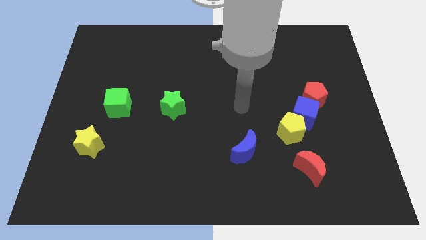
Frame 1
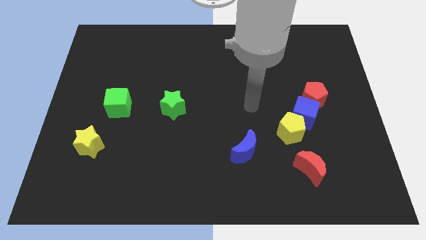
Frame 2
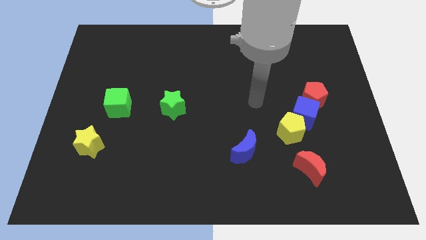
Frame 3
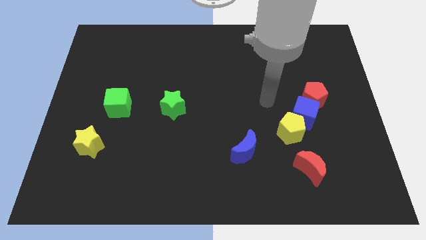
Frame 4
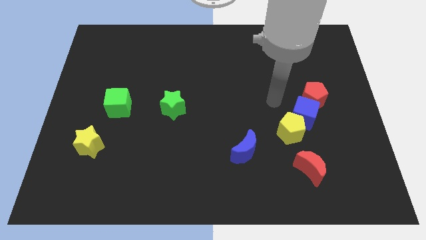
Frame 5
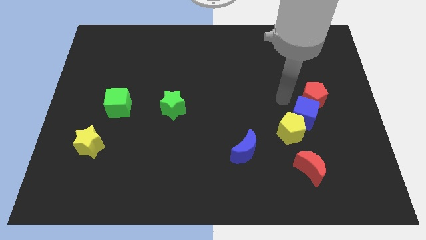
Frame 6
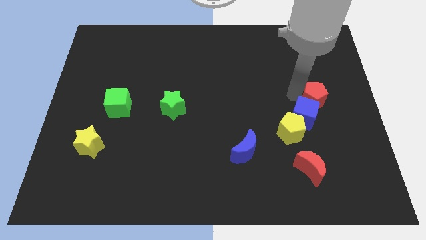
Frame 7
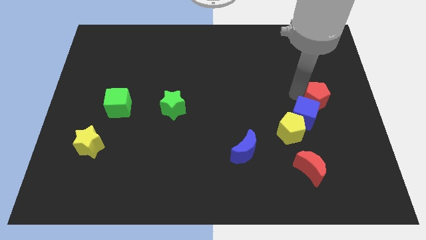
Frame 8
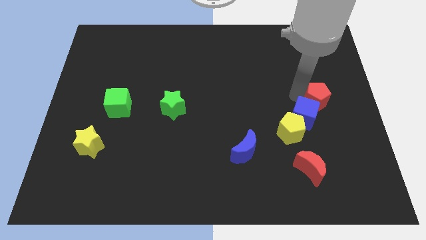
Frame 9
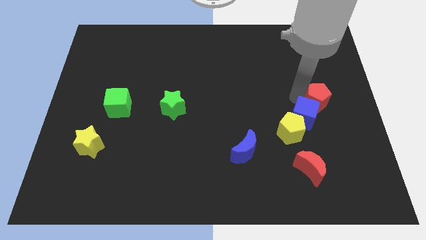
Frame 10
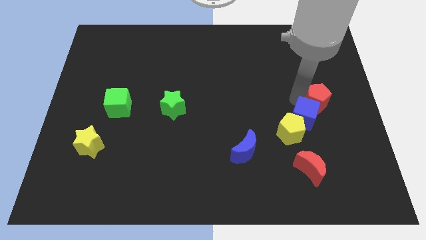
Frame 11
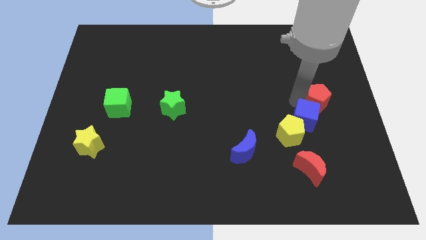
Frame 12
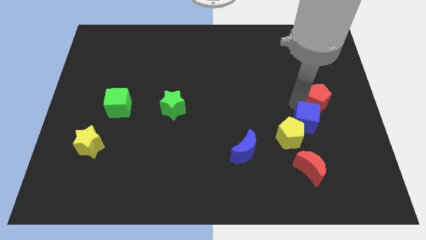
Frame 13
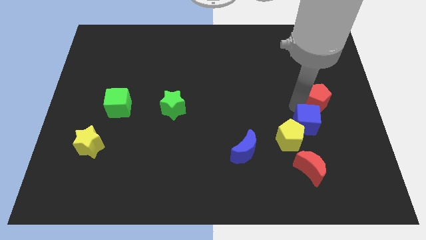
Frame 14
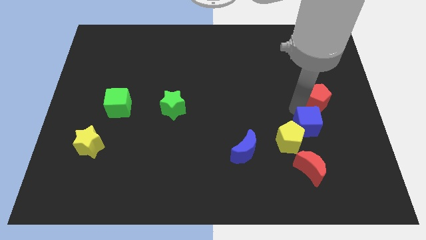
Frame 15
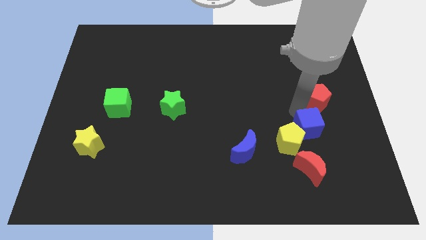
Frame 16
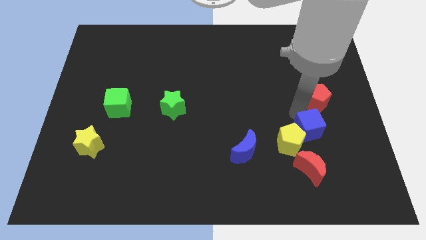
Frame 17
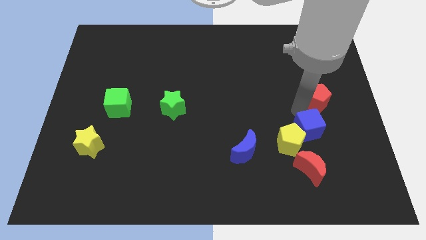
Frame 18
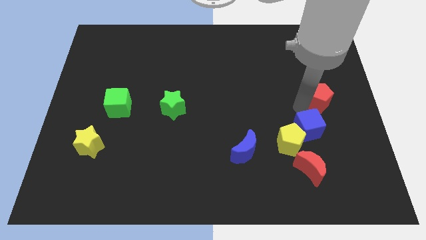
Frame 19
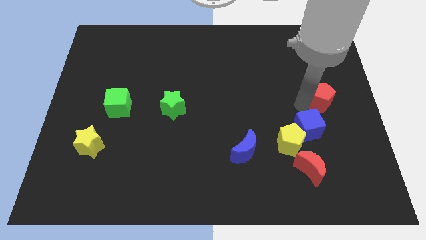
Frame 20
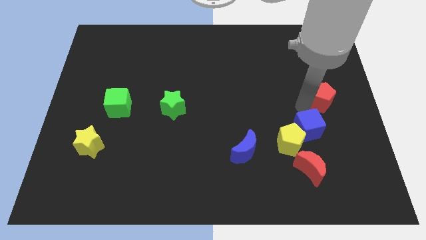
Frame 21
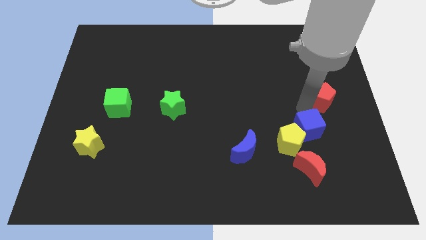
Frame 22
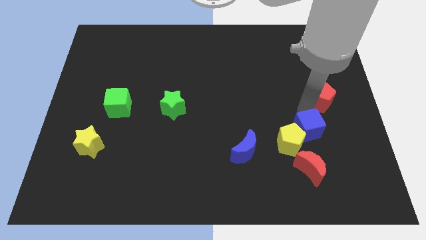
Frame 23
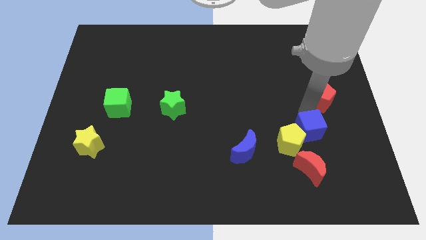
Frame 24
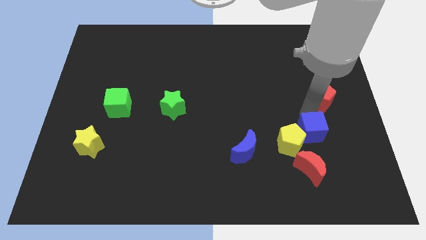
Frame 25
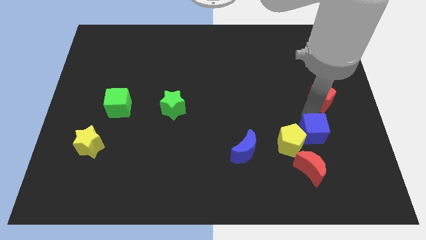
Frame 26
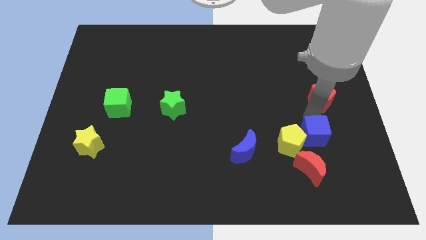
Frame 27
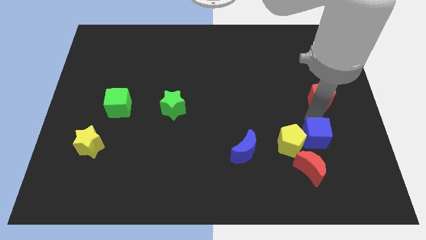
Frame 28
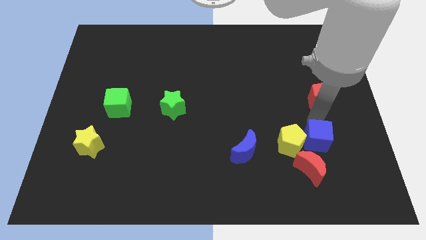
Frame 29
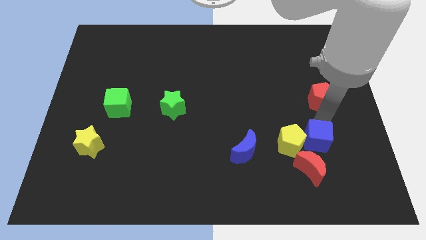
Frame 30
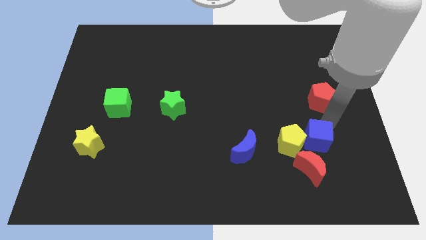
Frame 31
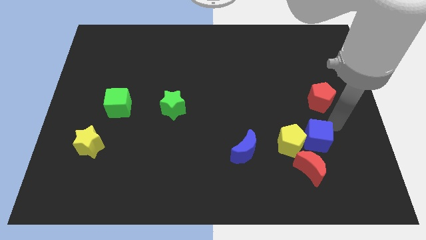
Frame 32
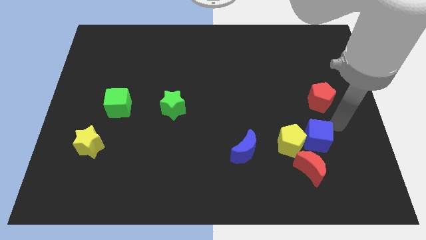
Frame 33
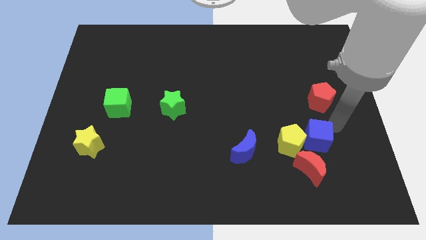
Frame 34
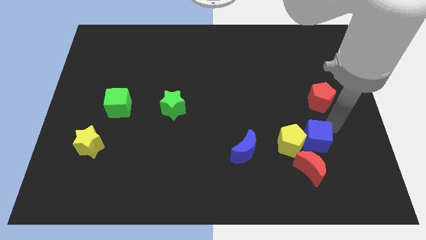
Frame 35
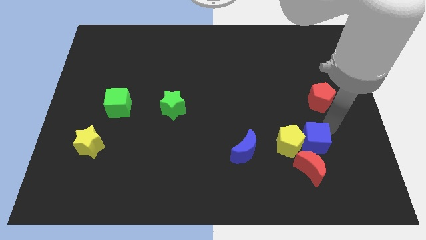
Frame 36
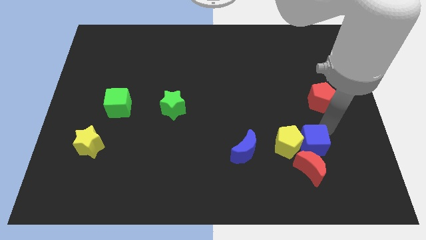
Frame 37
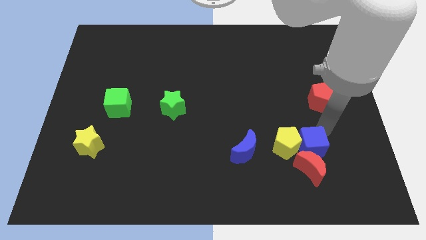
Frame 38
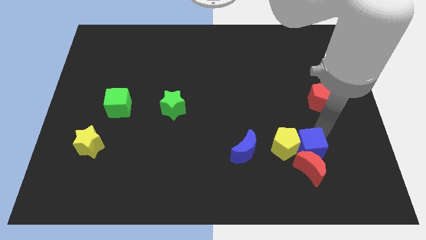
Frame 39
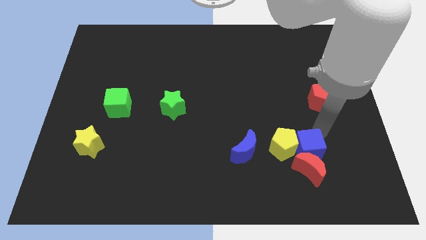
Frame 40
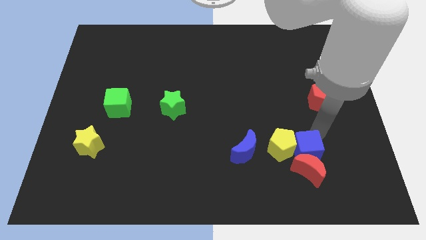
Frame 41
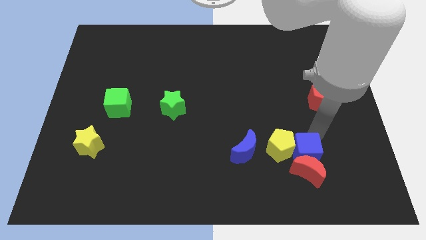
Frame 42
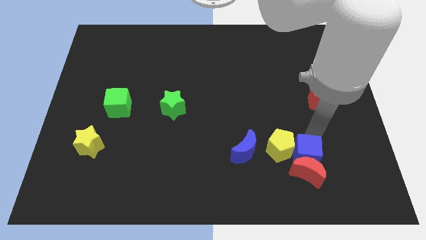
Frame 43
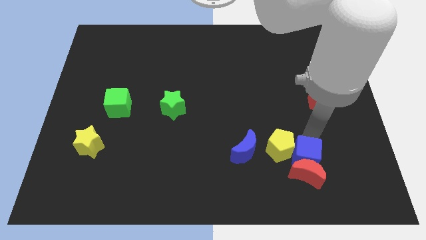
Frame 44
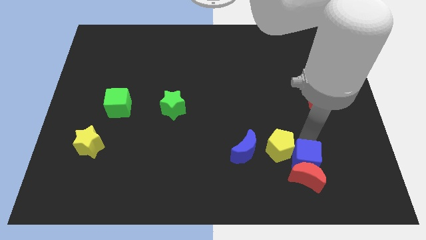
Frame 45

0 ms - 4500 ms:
slightly slide the blue cube downwards and to the left

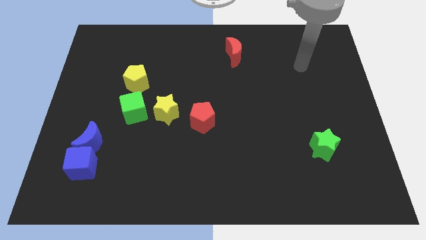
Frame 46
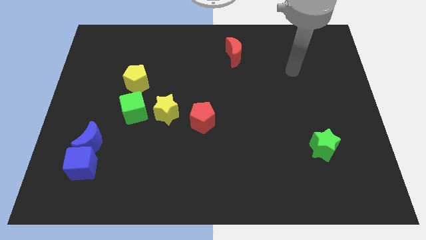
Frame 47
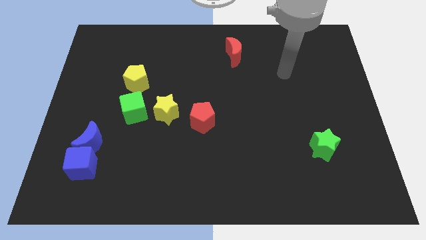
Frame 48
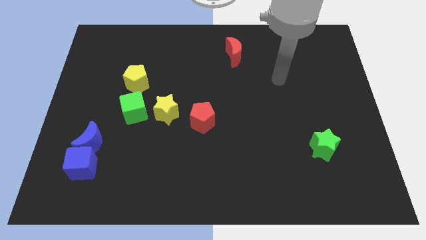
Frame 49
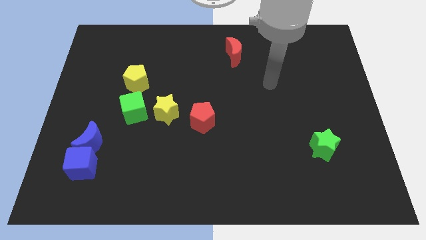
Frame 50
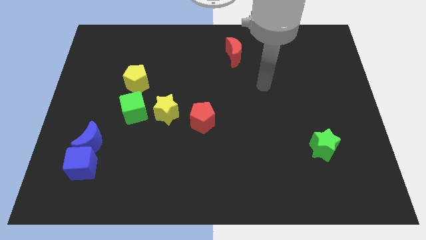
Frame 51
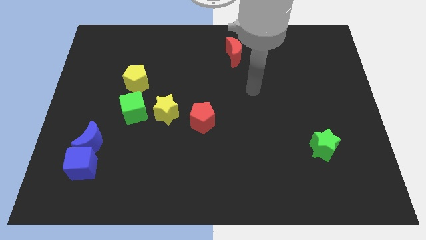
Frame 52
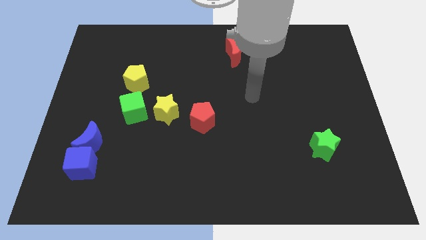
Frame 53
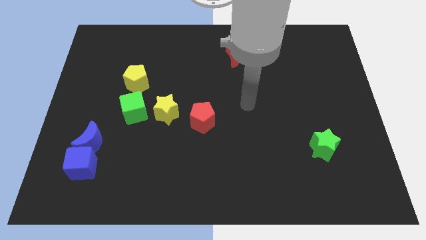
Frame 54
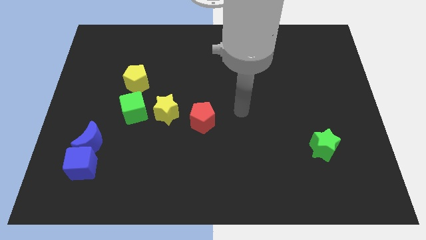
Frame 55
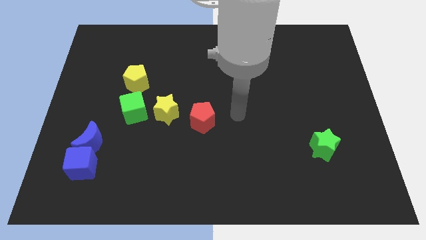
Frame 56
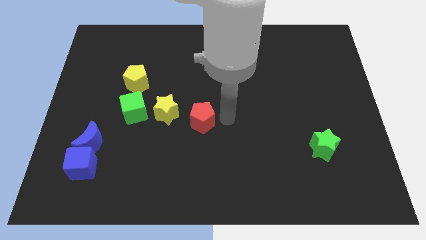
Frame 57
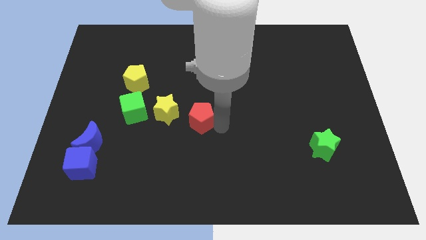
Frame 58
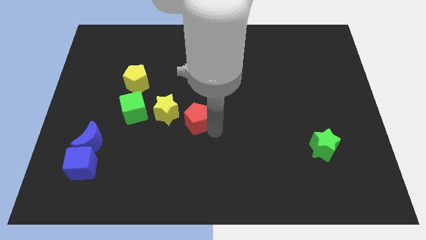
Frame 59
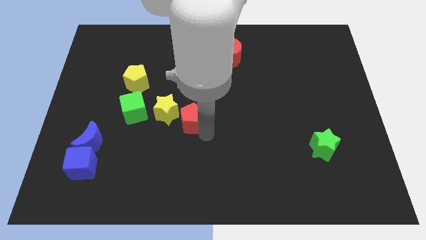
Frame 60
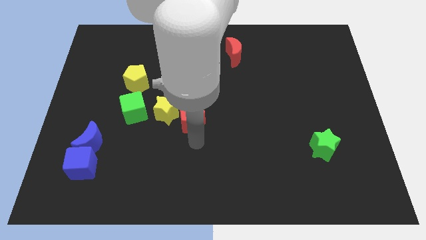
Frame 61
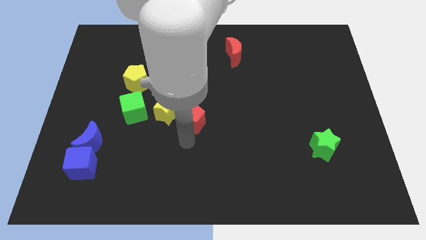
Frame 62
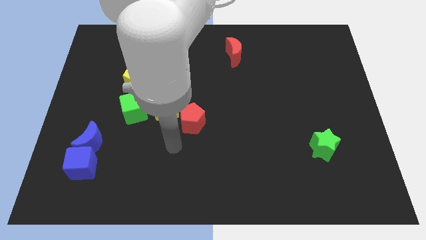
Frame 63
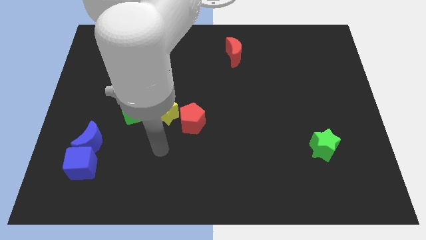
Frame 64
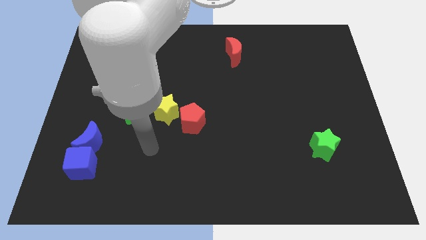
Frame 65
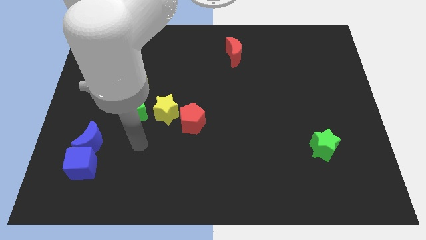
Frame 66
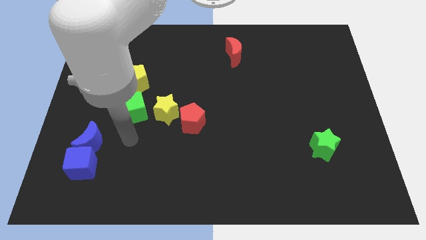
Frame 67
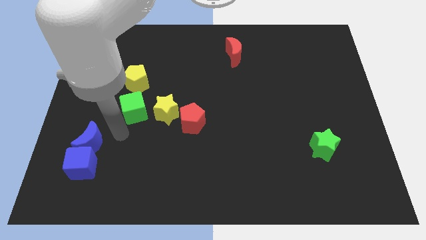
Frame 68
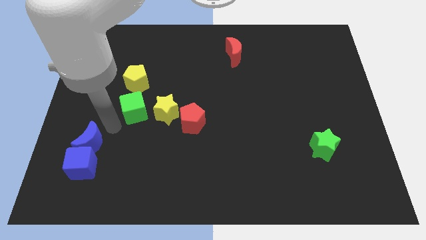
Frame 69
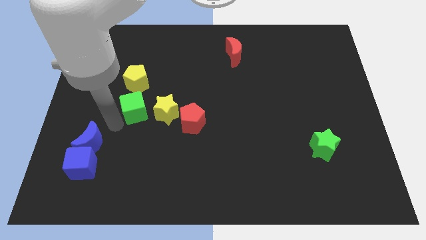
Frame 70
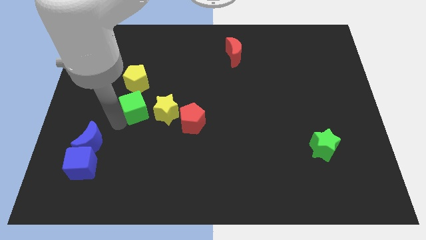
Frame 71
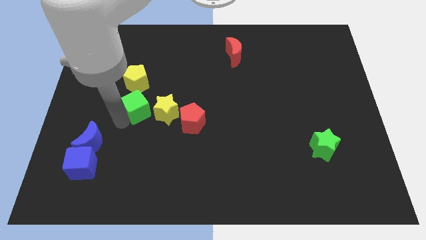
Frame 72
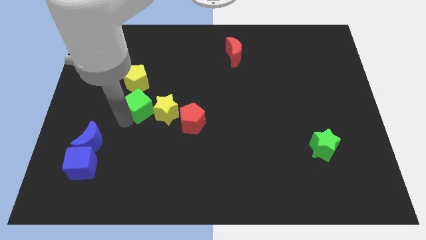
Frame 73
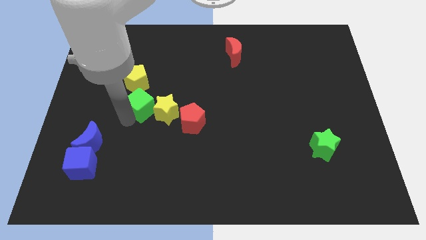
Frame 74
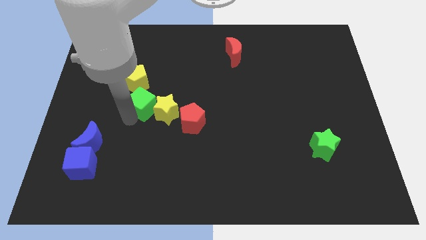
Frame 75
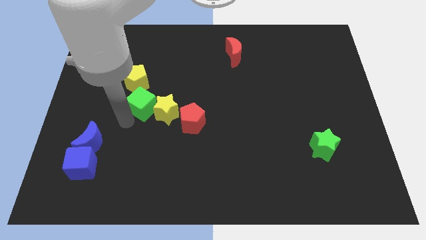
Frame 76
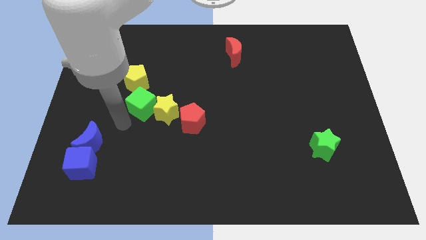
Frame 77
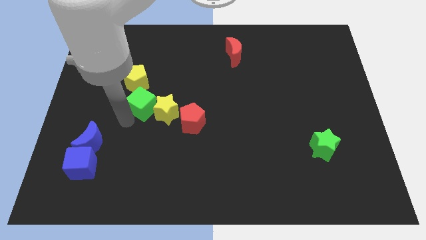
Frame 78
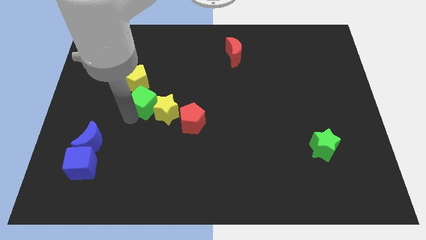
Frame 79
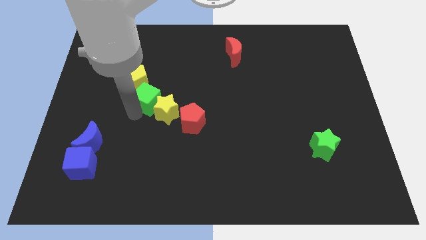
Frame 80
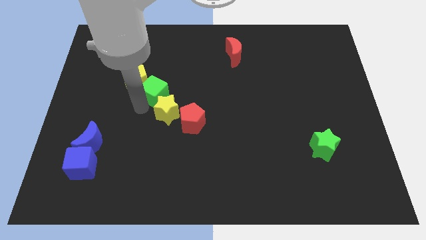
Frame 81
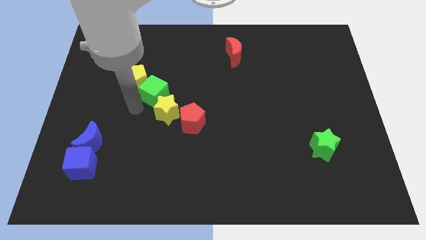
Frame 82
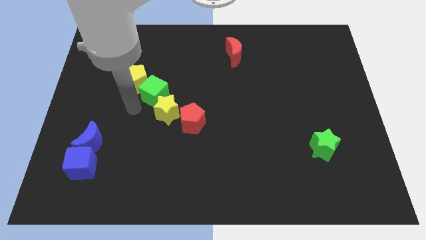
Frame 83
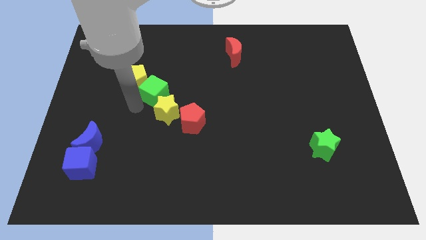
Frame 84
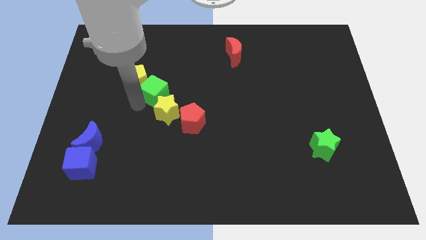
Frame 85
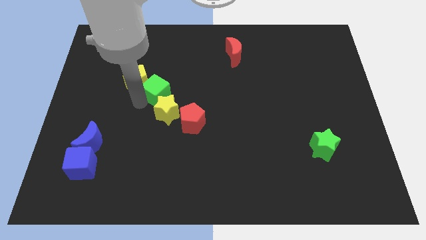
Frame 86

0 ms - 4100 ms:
push the green cube upwards and right diagonally a little bit
